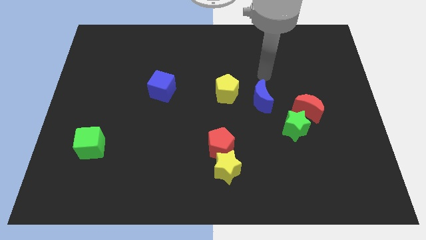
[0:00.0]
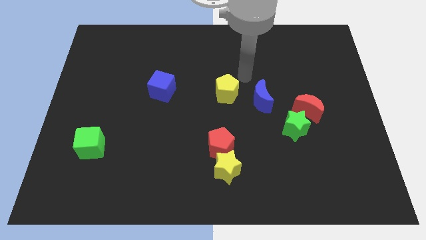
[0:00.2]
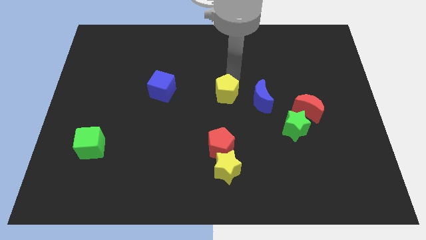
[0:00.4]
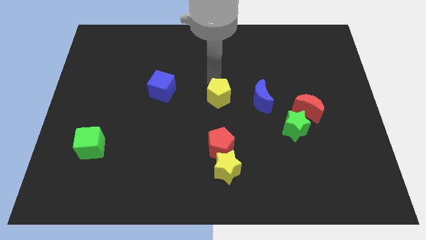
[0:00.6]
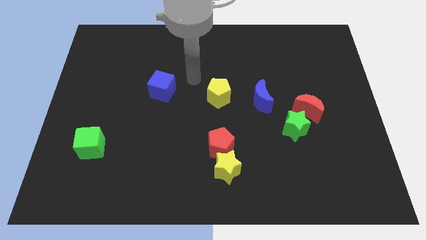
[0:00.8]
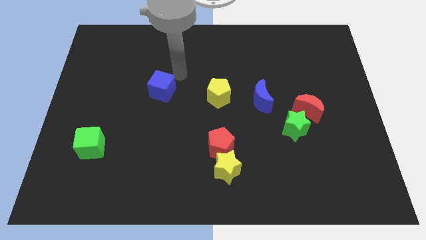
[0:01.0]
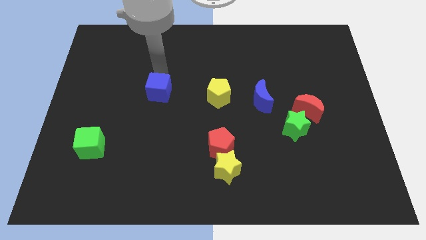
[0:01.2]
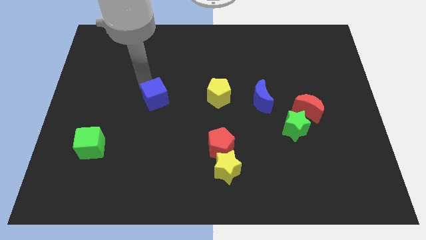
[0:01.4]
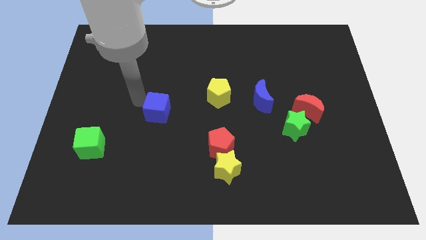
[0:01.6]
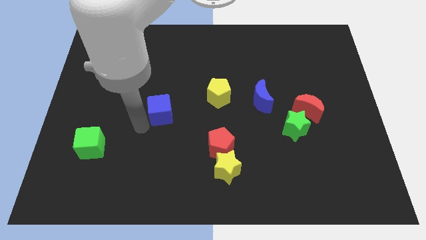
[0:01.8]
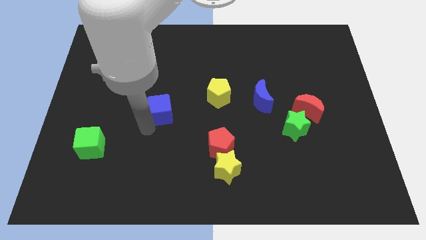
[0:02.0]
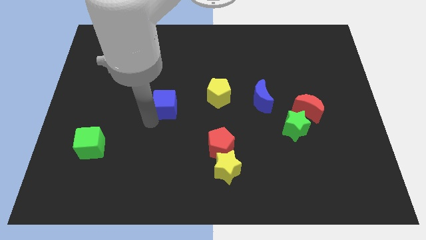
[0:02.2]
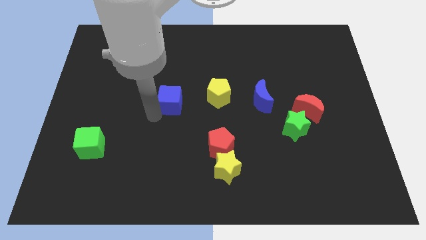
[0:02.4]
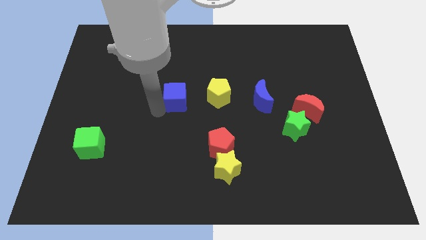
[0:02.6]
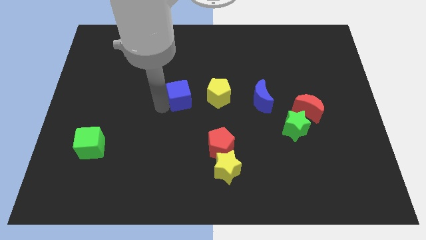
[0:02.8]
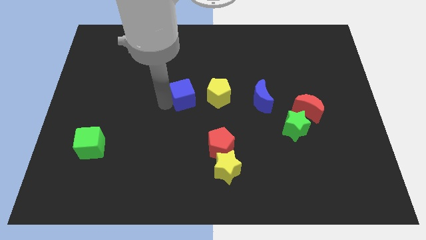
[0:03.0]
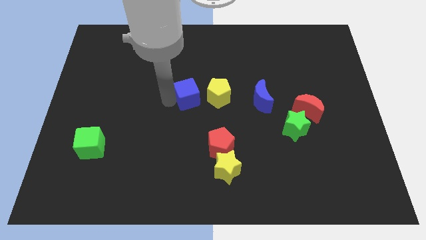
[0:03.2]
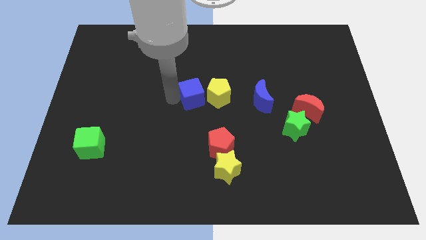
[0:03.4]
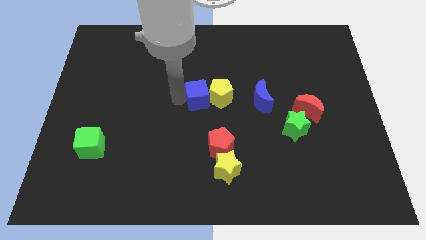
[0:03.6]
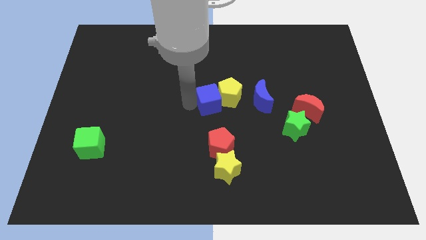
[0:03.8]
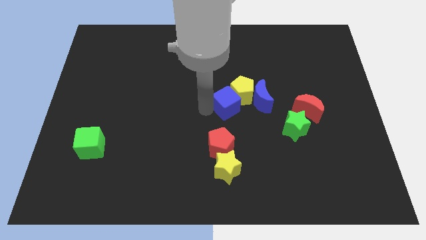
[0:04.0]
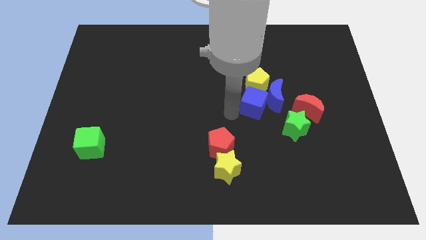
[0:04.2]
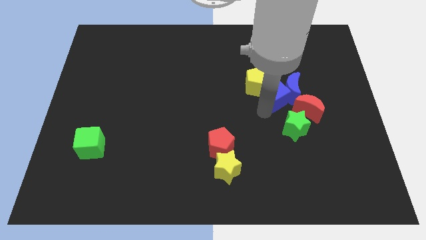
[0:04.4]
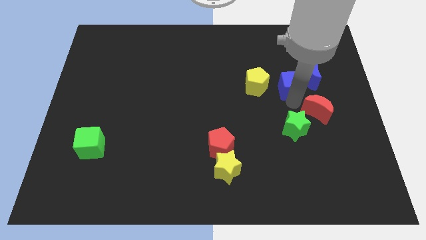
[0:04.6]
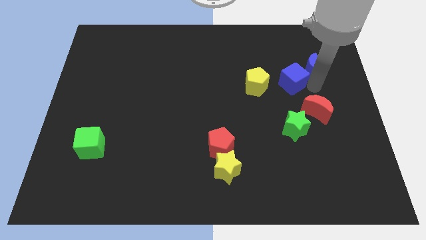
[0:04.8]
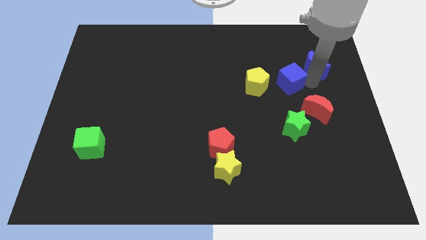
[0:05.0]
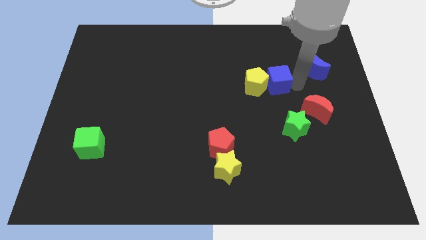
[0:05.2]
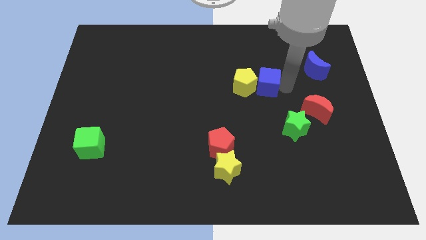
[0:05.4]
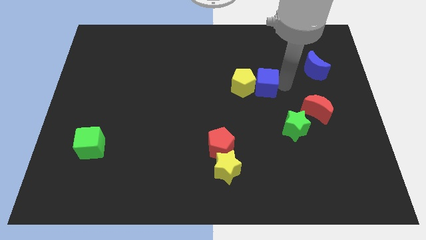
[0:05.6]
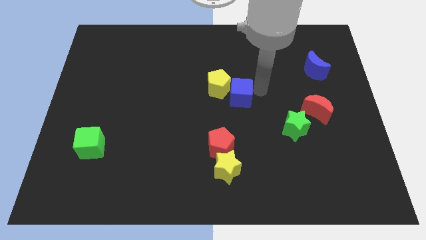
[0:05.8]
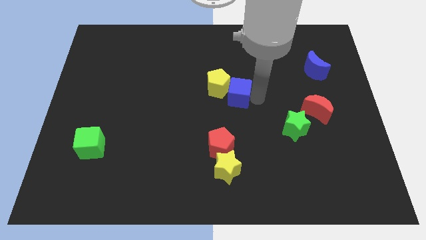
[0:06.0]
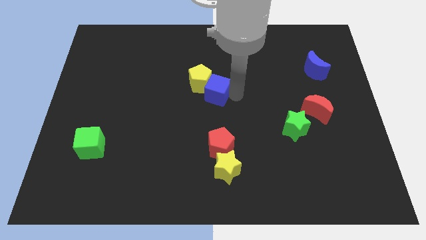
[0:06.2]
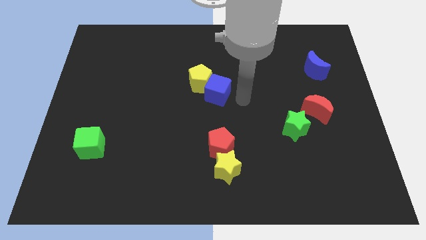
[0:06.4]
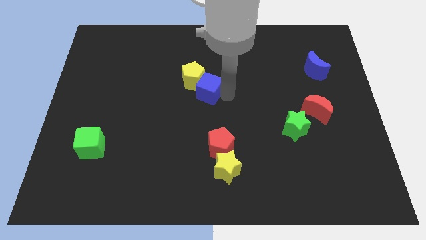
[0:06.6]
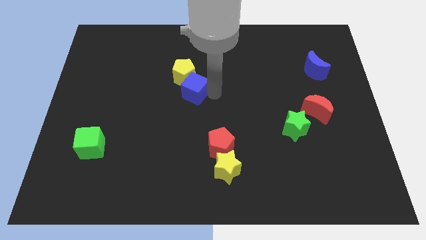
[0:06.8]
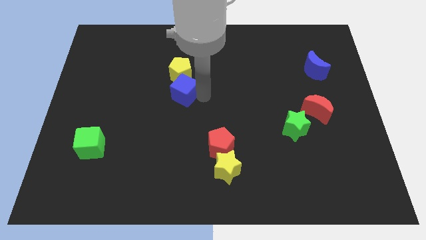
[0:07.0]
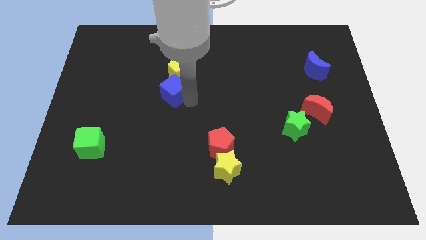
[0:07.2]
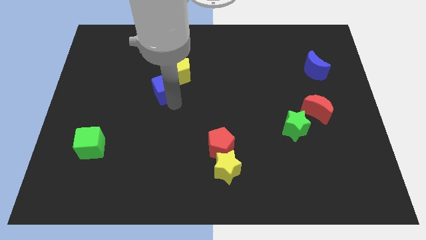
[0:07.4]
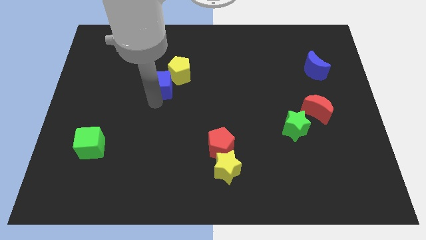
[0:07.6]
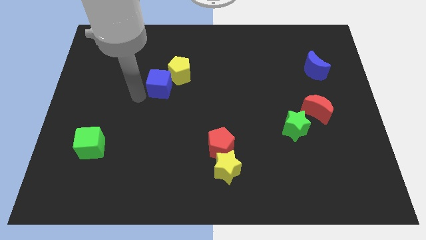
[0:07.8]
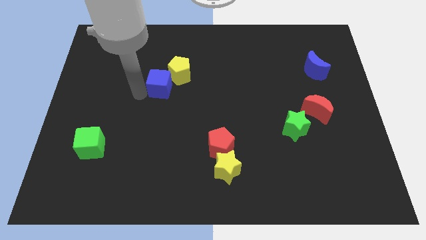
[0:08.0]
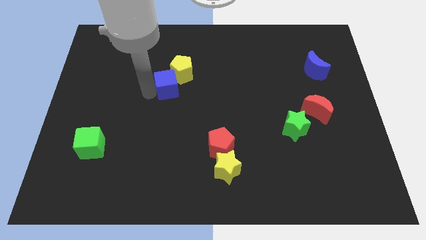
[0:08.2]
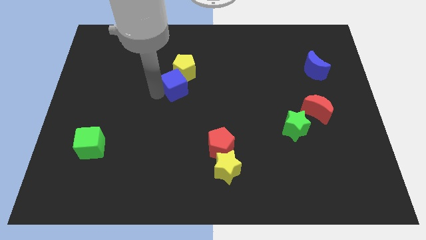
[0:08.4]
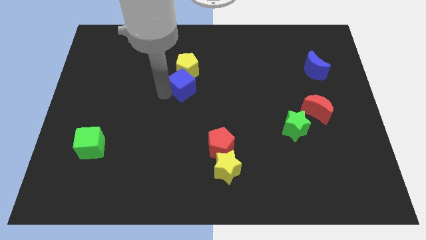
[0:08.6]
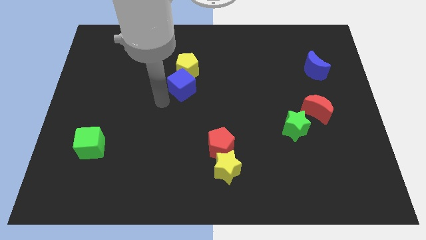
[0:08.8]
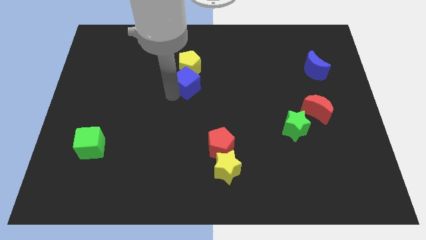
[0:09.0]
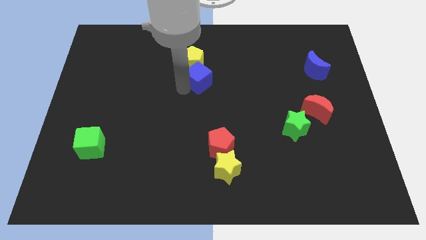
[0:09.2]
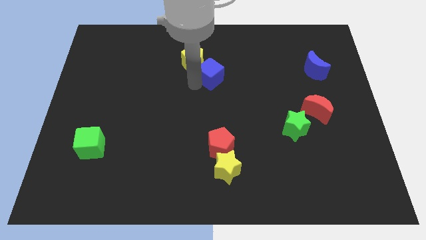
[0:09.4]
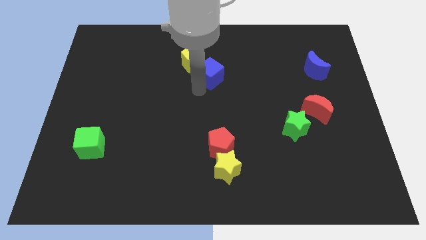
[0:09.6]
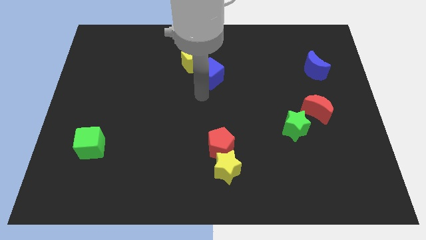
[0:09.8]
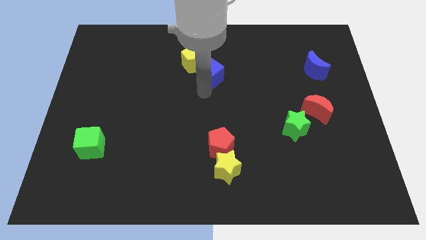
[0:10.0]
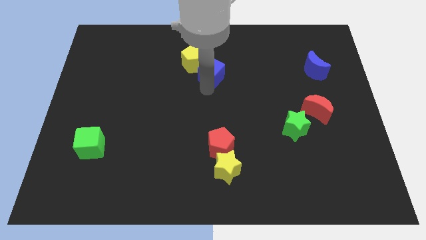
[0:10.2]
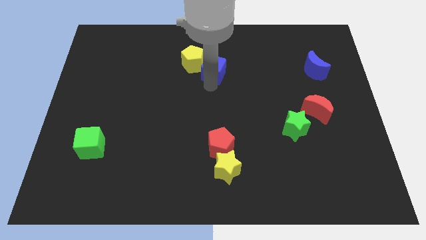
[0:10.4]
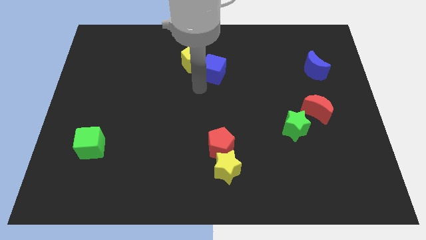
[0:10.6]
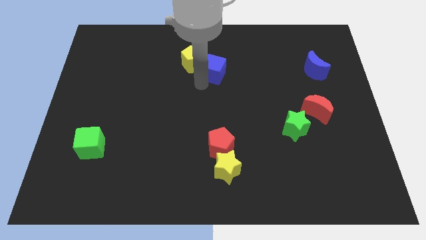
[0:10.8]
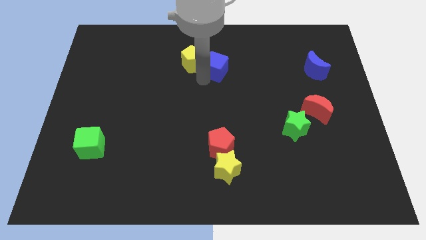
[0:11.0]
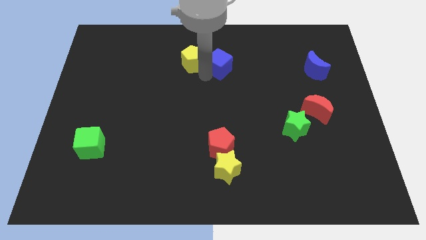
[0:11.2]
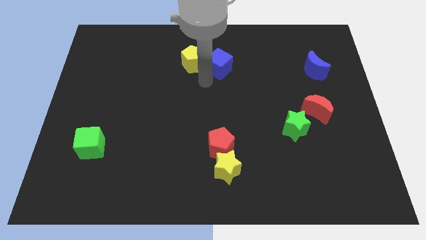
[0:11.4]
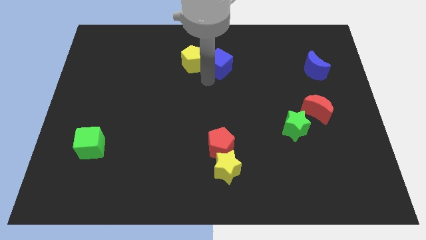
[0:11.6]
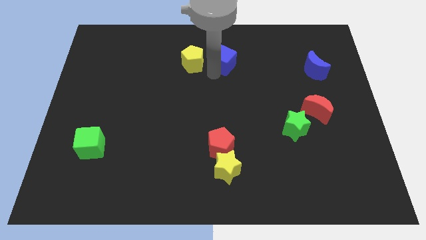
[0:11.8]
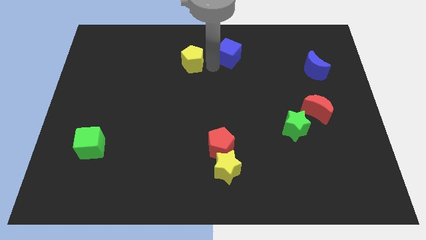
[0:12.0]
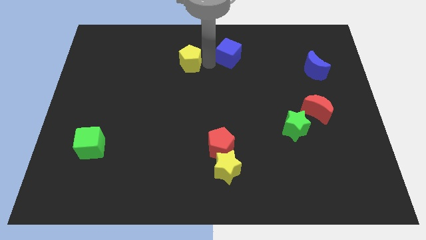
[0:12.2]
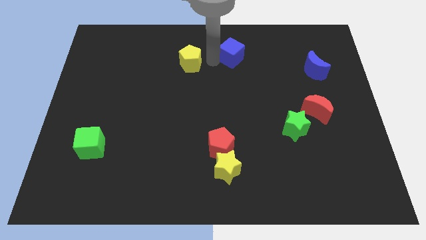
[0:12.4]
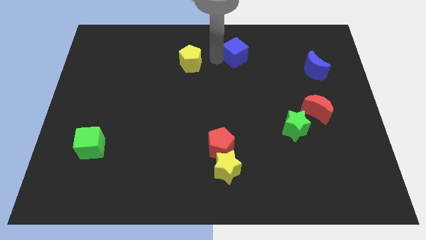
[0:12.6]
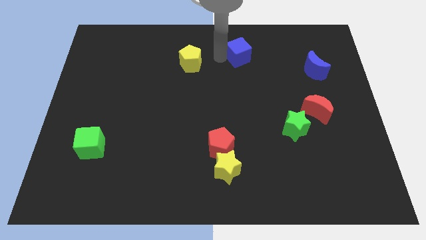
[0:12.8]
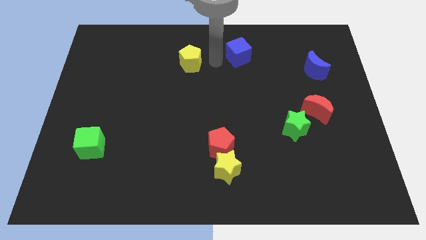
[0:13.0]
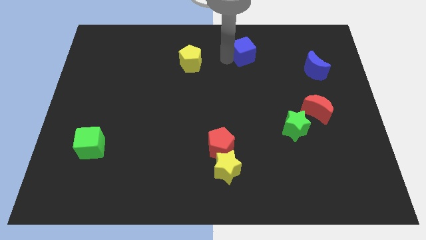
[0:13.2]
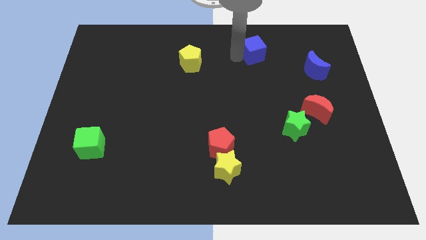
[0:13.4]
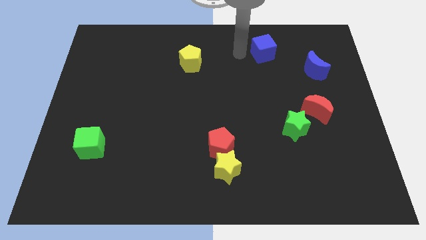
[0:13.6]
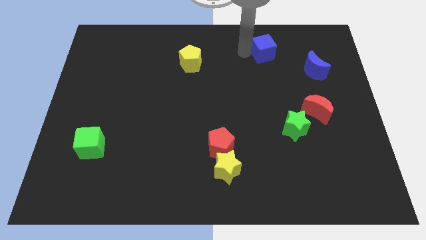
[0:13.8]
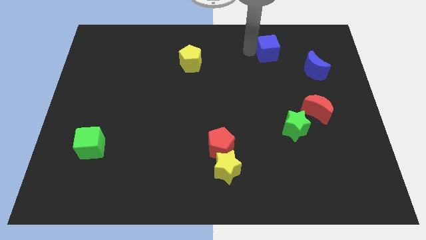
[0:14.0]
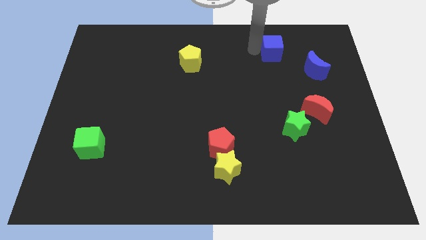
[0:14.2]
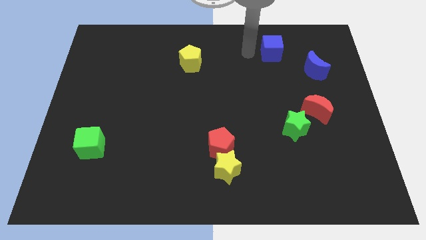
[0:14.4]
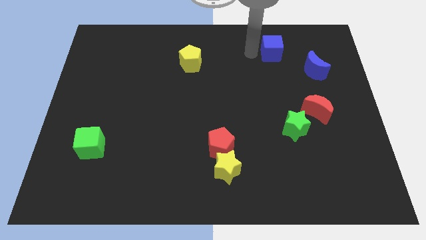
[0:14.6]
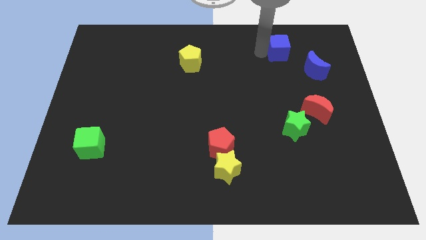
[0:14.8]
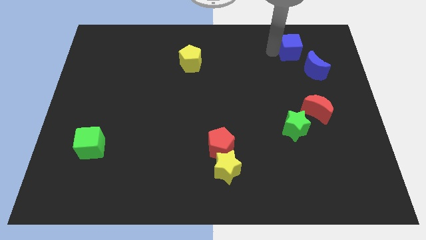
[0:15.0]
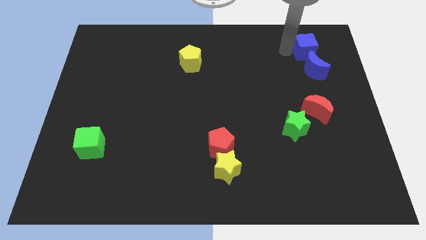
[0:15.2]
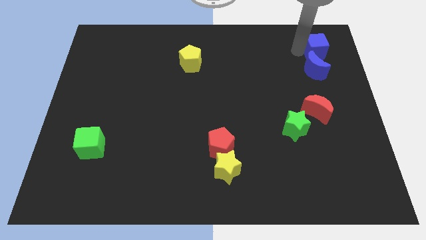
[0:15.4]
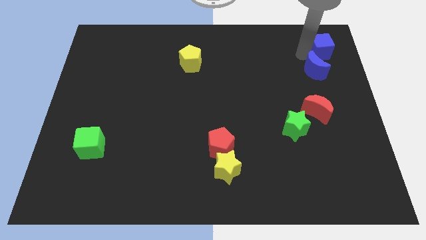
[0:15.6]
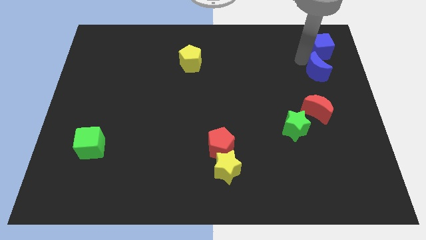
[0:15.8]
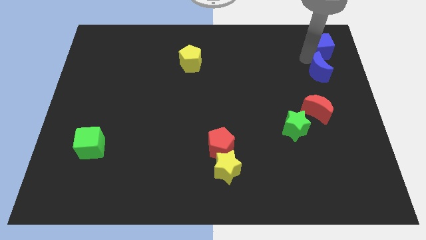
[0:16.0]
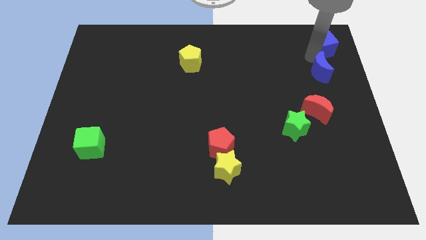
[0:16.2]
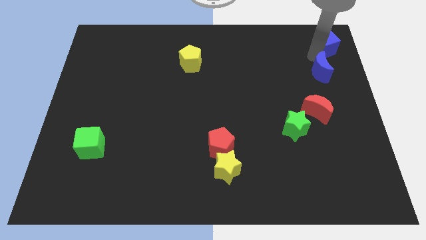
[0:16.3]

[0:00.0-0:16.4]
slide the blue cube to the top right of the board
